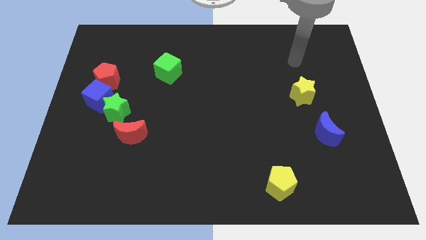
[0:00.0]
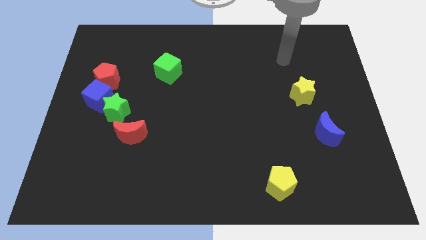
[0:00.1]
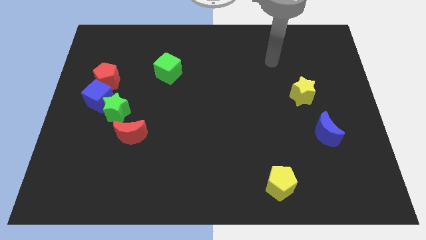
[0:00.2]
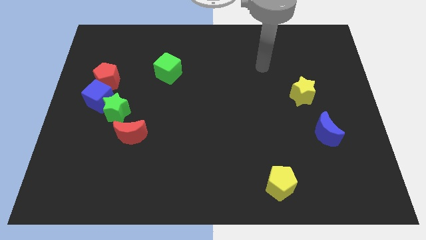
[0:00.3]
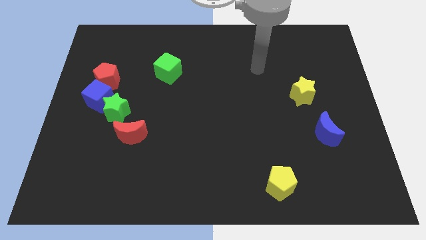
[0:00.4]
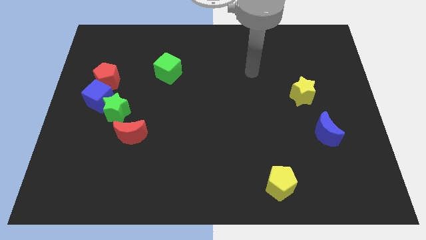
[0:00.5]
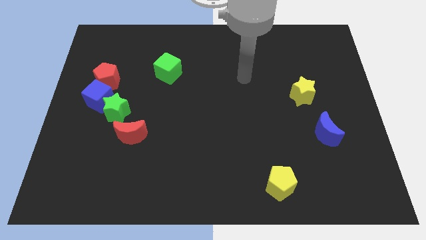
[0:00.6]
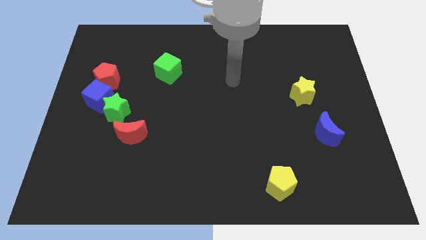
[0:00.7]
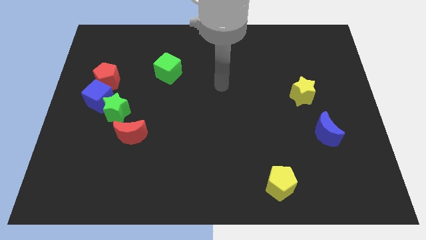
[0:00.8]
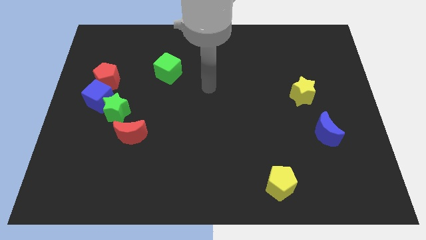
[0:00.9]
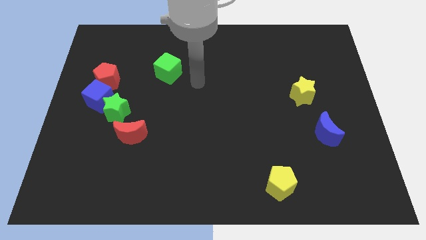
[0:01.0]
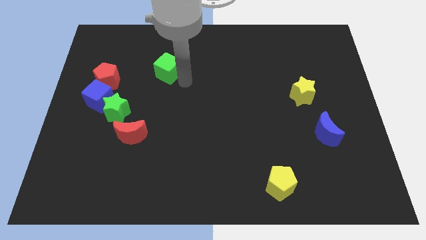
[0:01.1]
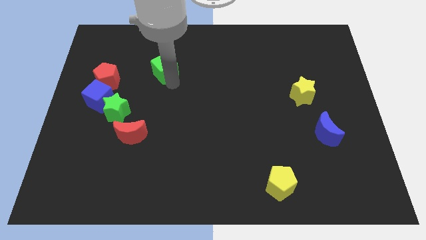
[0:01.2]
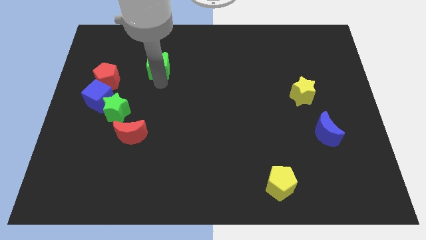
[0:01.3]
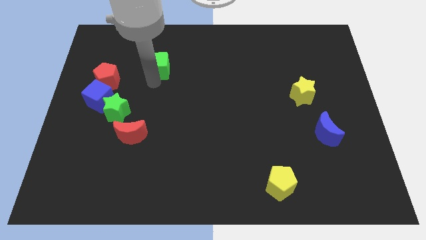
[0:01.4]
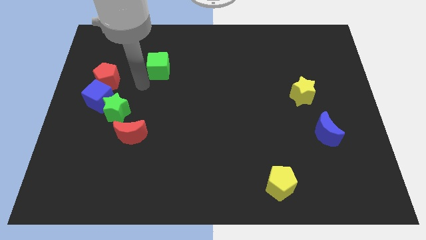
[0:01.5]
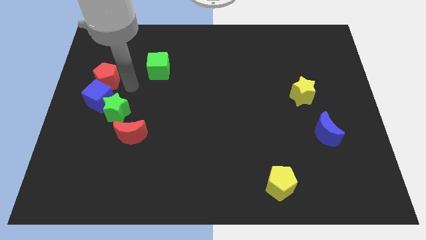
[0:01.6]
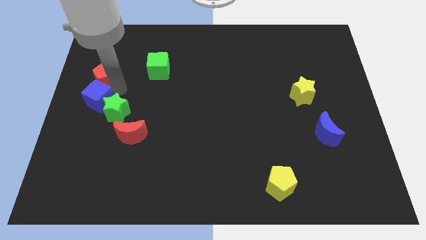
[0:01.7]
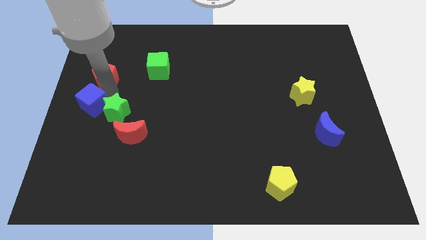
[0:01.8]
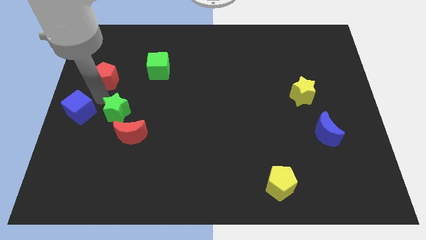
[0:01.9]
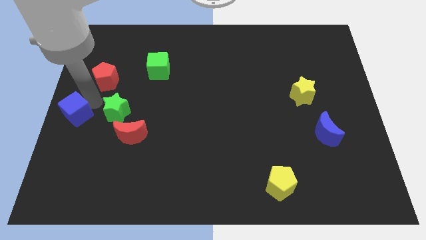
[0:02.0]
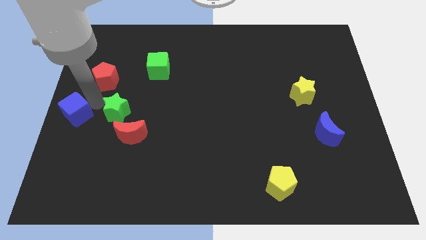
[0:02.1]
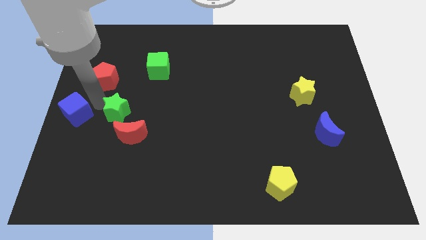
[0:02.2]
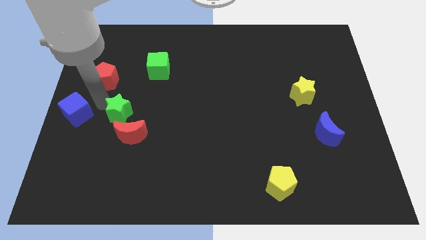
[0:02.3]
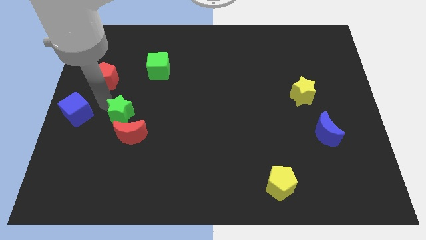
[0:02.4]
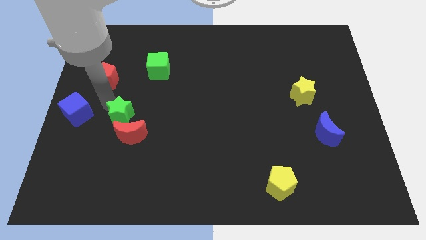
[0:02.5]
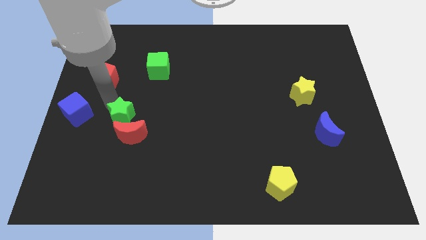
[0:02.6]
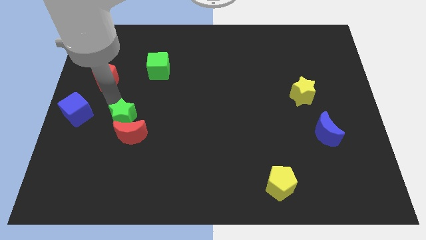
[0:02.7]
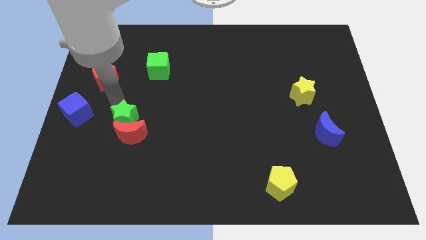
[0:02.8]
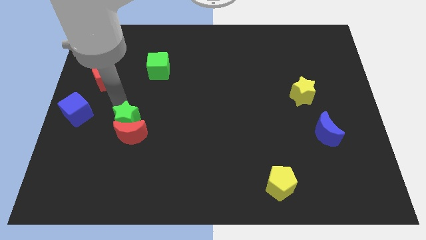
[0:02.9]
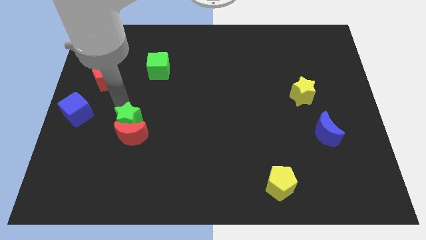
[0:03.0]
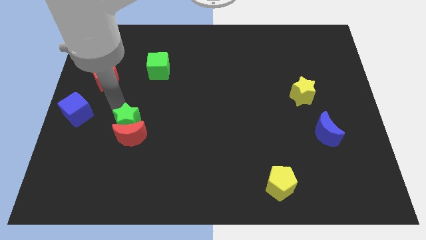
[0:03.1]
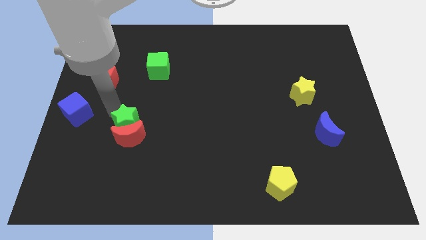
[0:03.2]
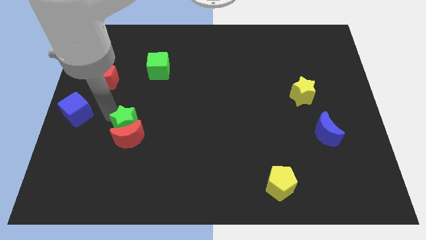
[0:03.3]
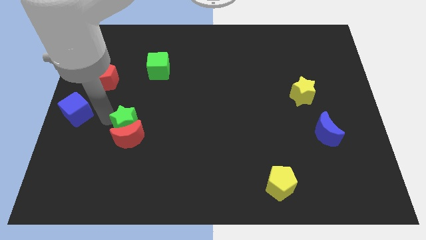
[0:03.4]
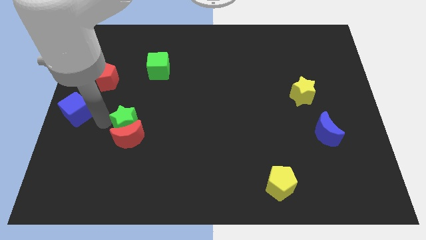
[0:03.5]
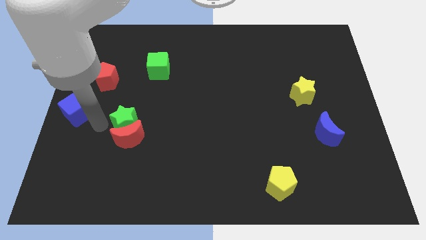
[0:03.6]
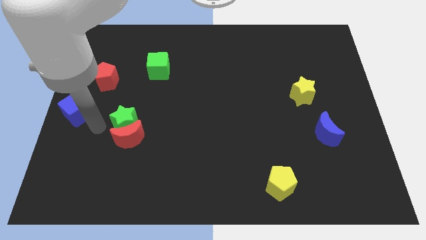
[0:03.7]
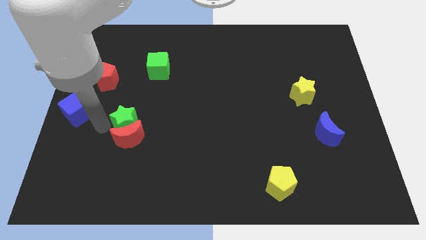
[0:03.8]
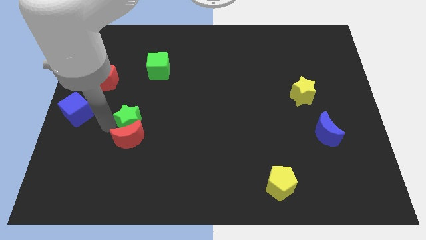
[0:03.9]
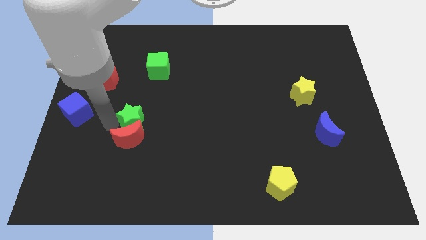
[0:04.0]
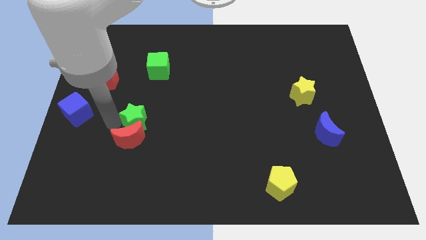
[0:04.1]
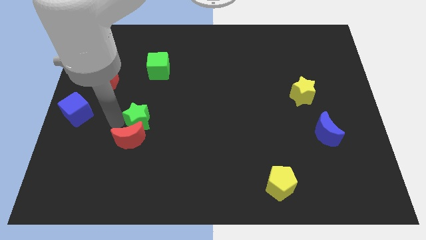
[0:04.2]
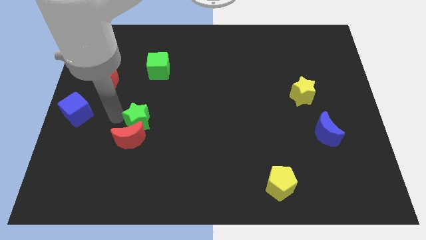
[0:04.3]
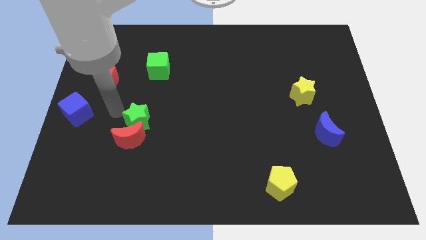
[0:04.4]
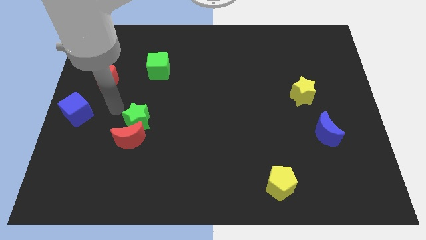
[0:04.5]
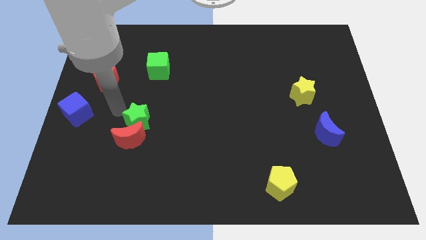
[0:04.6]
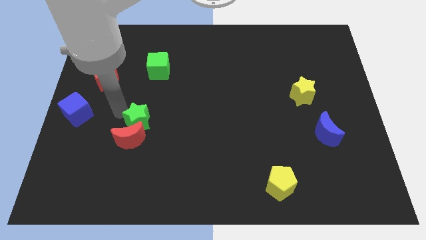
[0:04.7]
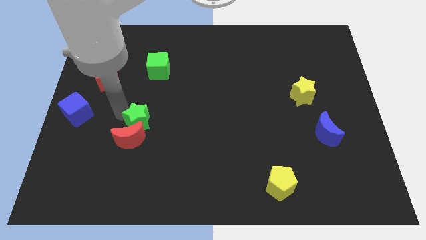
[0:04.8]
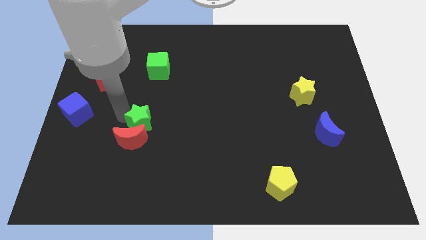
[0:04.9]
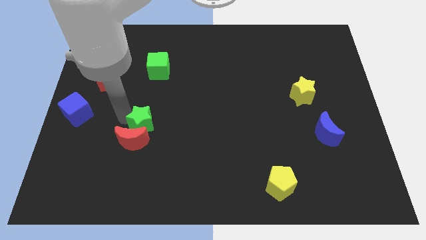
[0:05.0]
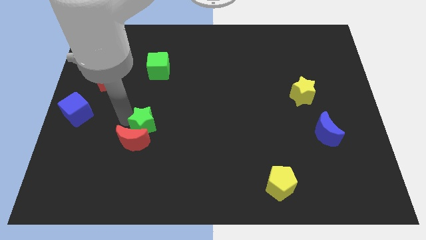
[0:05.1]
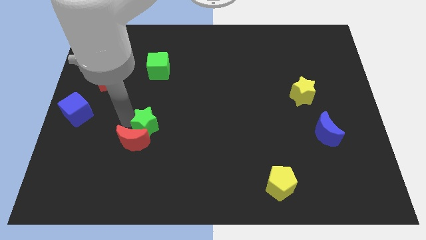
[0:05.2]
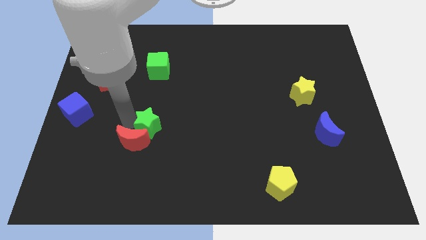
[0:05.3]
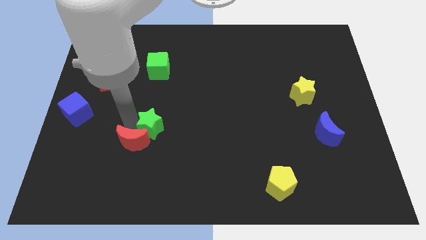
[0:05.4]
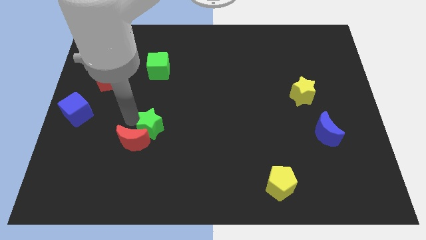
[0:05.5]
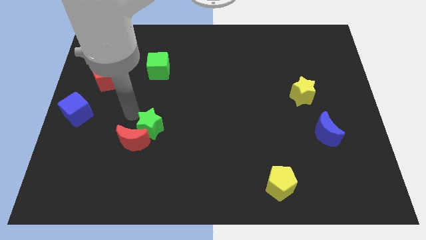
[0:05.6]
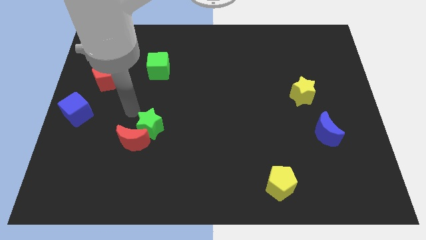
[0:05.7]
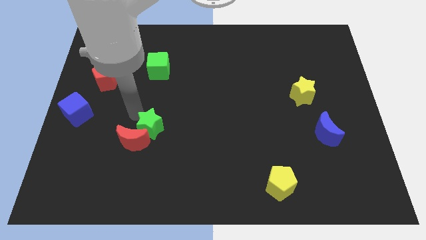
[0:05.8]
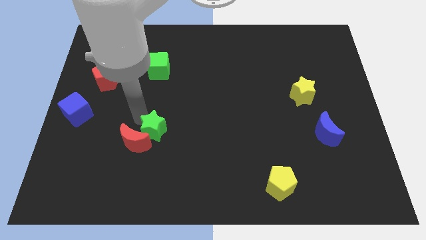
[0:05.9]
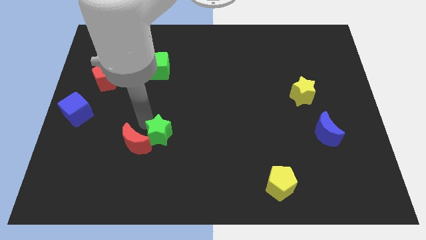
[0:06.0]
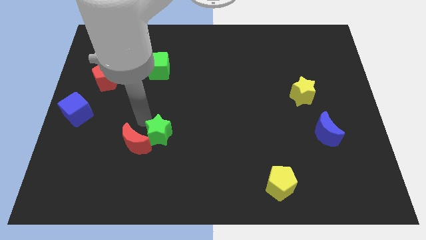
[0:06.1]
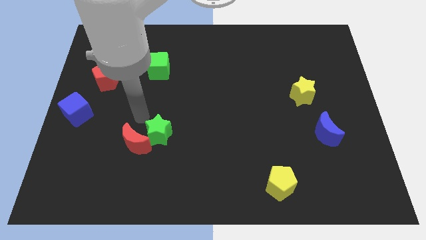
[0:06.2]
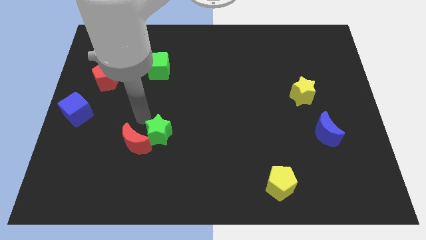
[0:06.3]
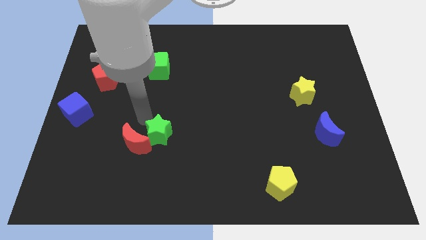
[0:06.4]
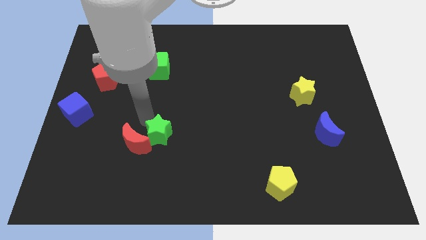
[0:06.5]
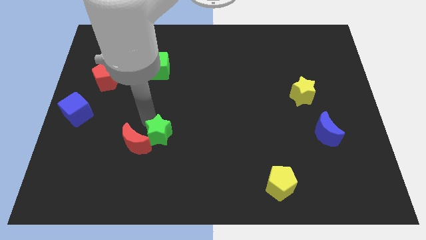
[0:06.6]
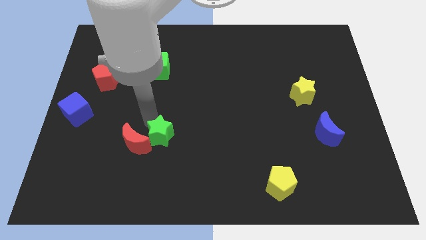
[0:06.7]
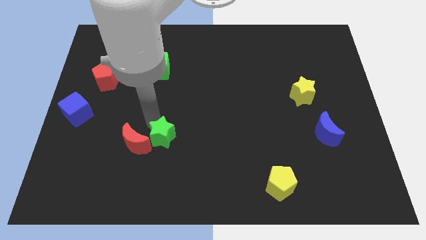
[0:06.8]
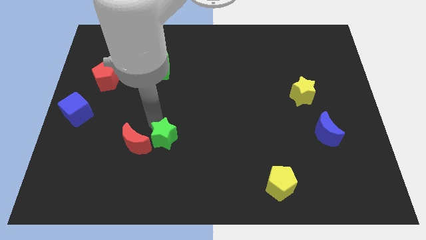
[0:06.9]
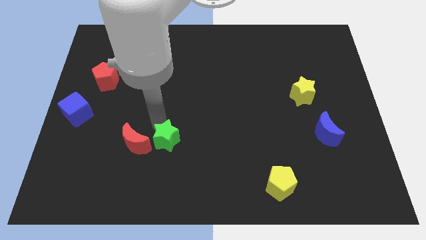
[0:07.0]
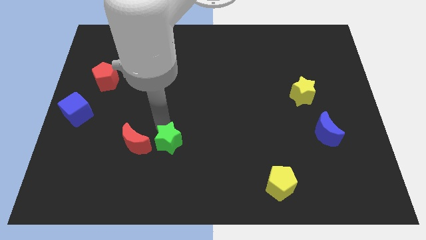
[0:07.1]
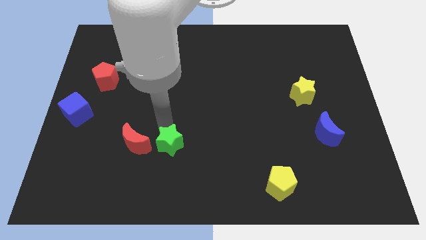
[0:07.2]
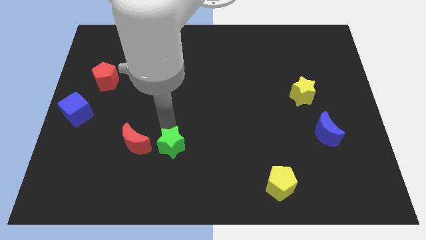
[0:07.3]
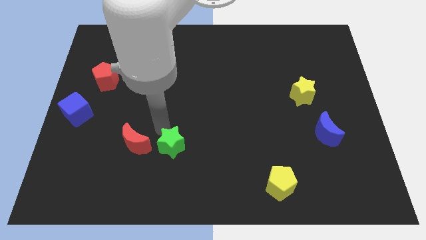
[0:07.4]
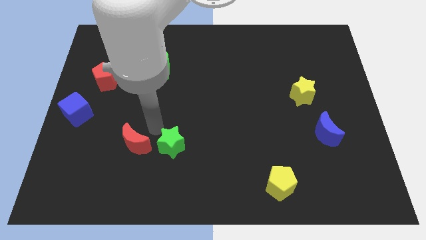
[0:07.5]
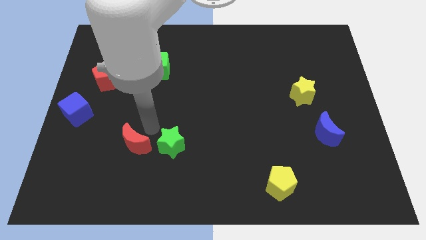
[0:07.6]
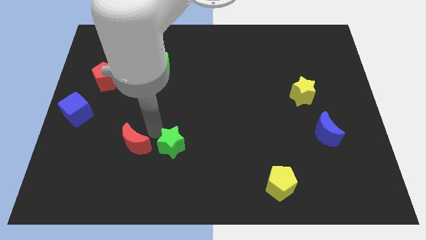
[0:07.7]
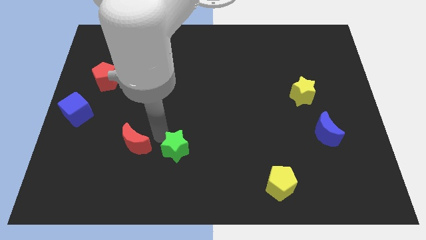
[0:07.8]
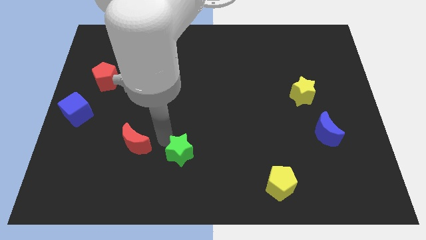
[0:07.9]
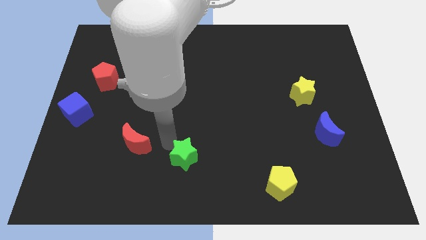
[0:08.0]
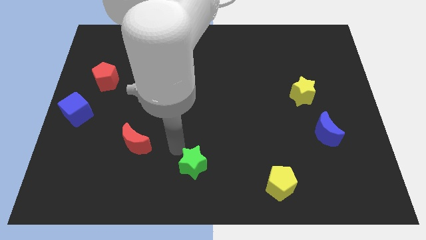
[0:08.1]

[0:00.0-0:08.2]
push the green star to the bottom side
